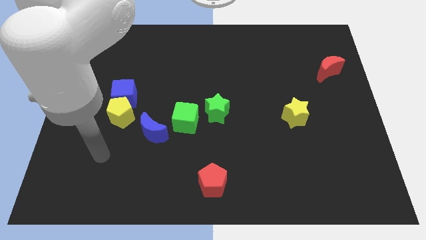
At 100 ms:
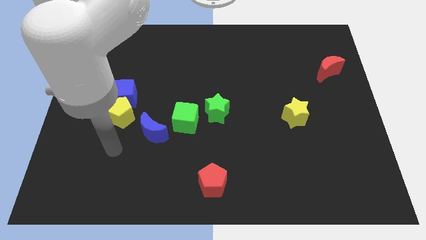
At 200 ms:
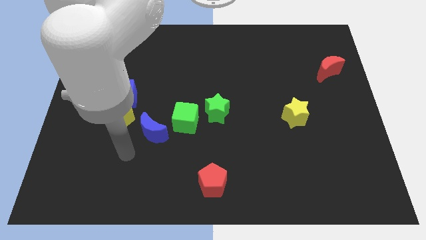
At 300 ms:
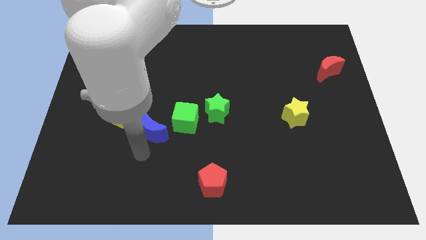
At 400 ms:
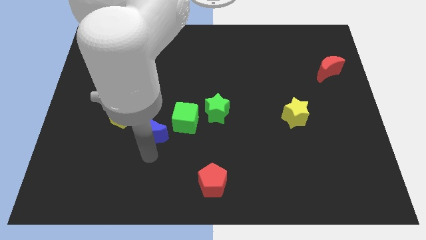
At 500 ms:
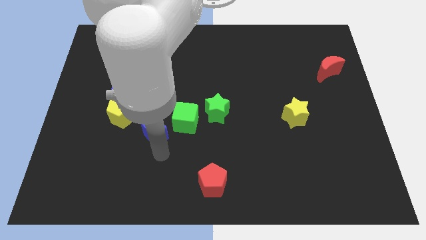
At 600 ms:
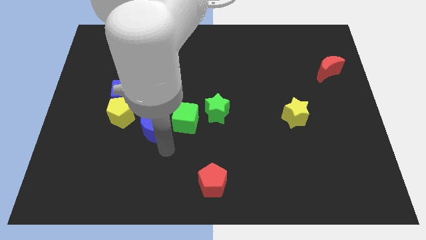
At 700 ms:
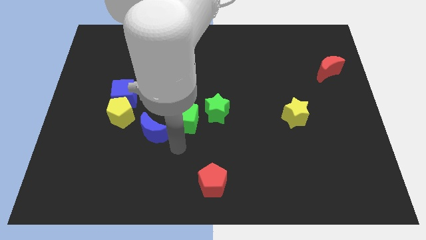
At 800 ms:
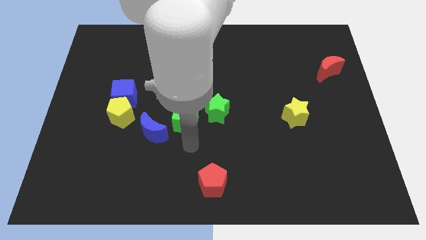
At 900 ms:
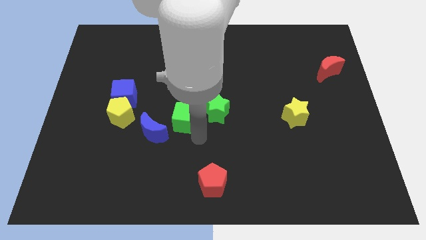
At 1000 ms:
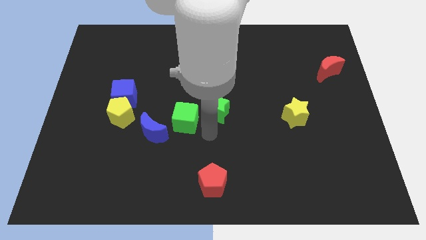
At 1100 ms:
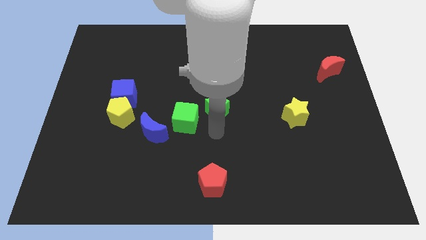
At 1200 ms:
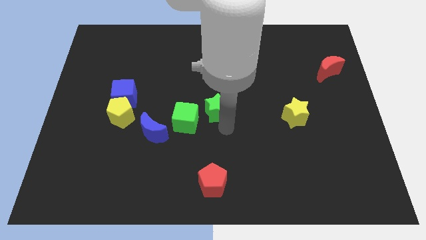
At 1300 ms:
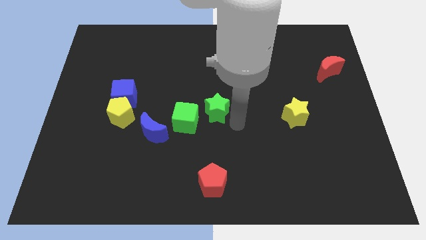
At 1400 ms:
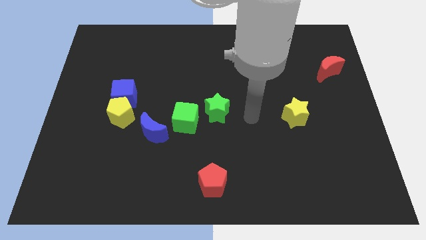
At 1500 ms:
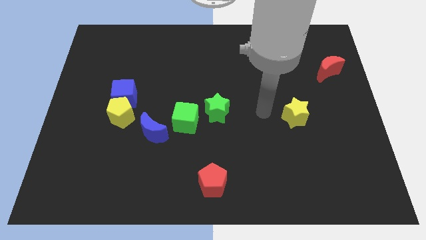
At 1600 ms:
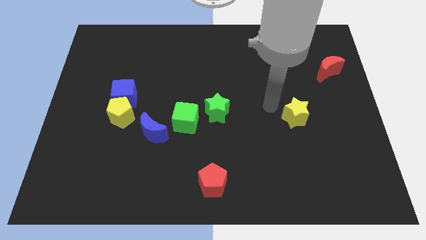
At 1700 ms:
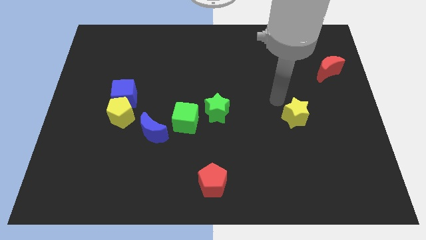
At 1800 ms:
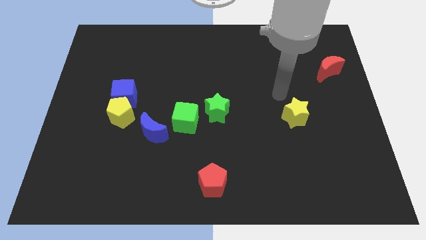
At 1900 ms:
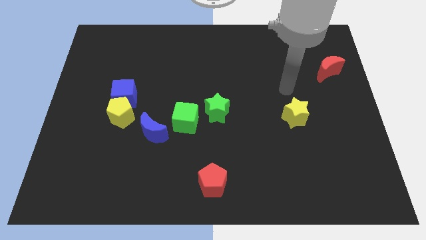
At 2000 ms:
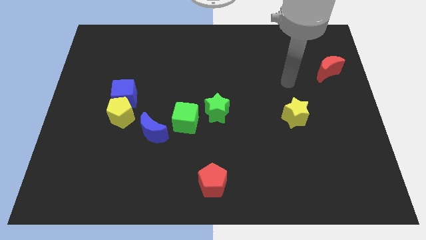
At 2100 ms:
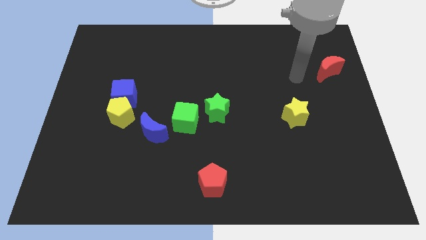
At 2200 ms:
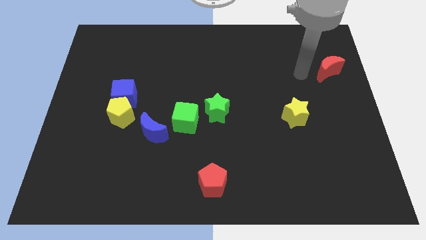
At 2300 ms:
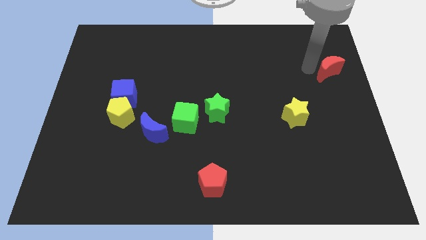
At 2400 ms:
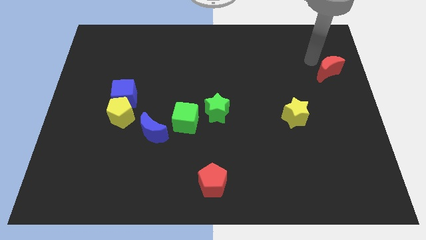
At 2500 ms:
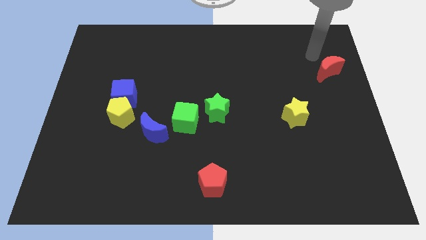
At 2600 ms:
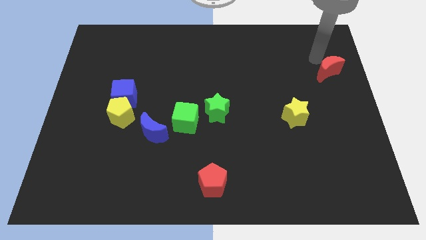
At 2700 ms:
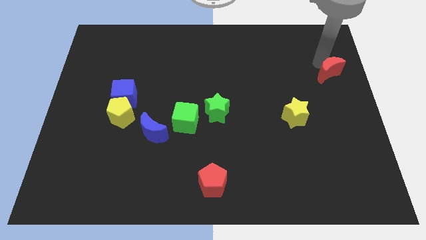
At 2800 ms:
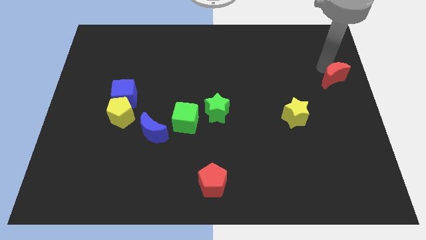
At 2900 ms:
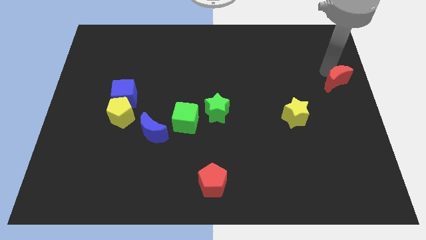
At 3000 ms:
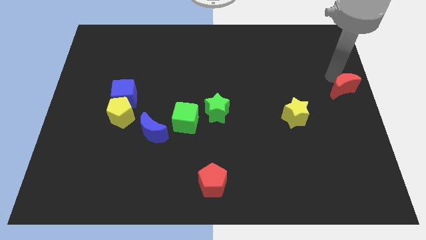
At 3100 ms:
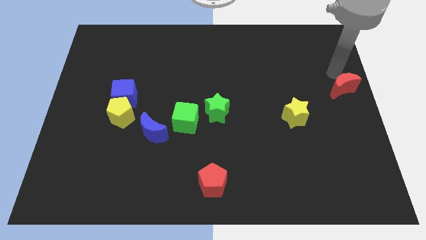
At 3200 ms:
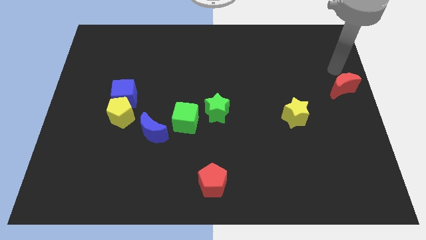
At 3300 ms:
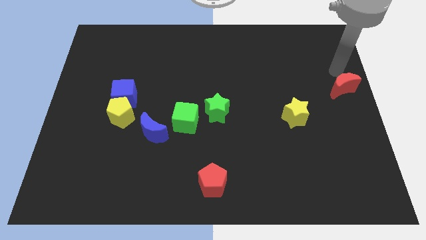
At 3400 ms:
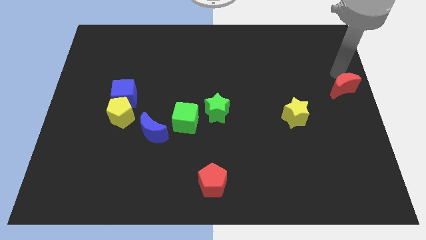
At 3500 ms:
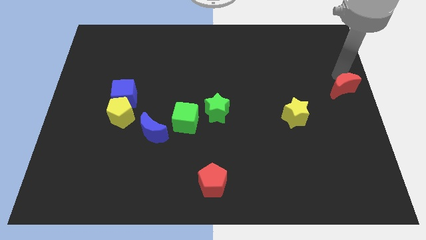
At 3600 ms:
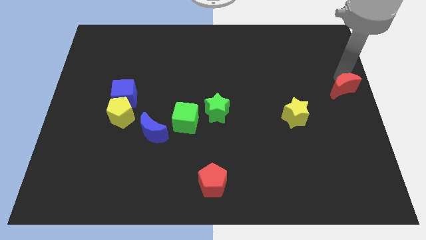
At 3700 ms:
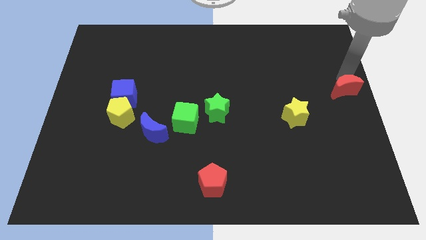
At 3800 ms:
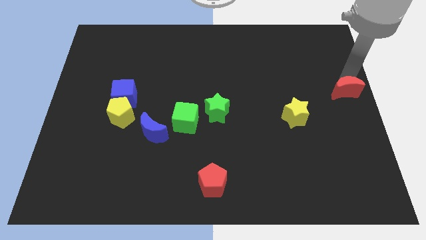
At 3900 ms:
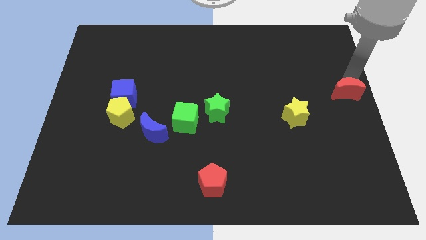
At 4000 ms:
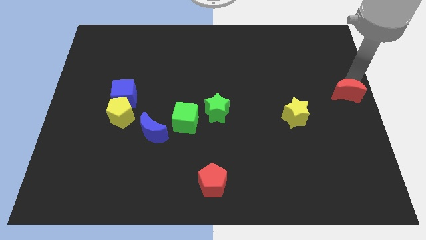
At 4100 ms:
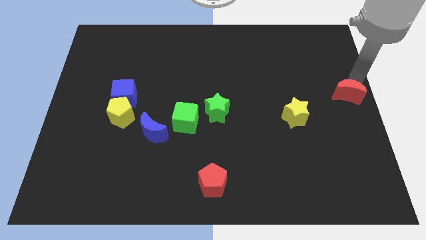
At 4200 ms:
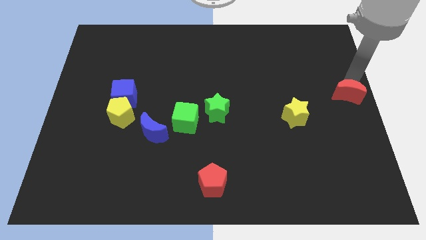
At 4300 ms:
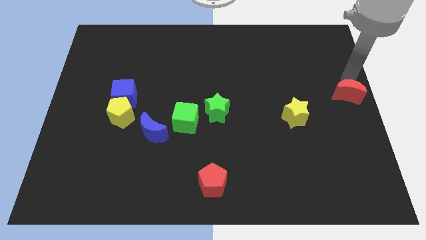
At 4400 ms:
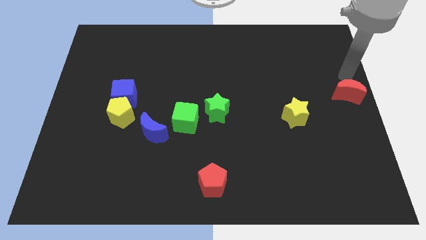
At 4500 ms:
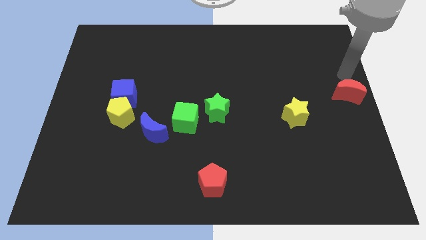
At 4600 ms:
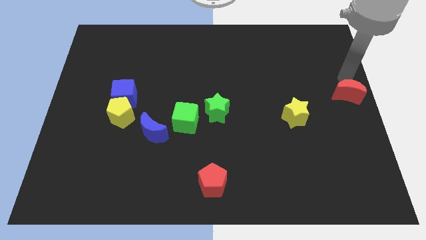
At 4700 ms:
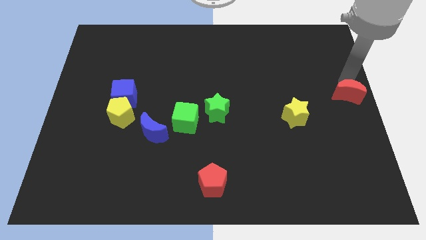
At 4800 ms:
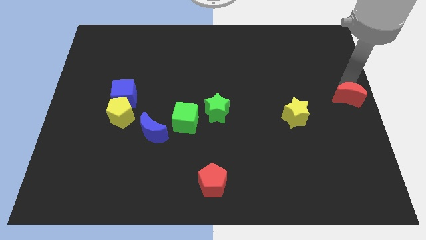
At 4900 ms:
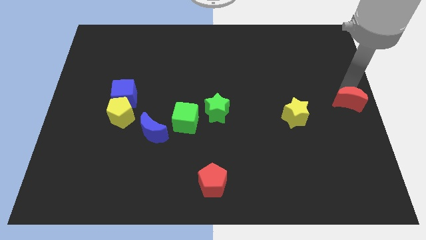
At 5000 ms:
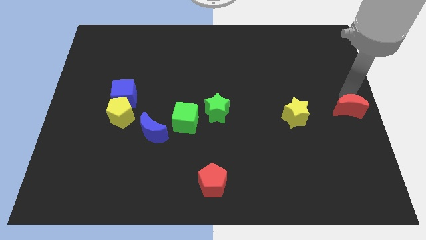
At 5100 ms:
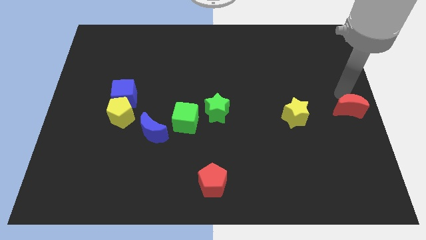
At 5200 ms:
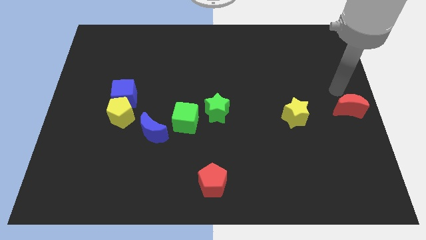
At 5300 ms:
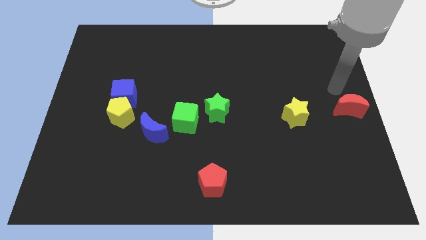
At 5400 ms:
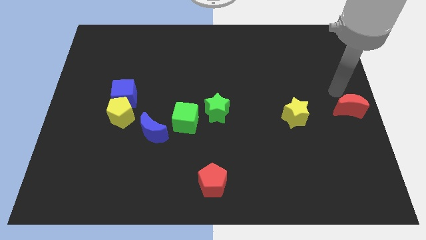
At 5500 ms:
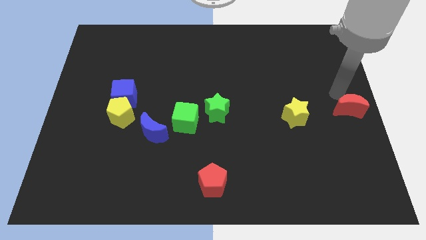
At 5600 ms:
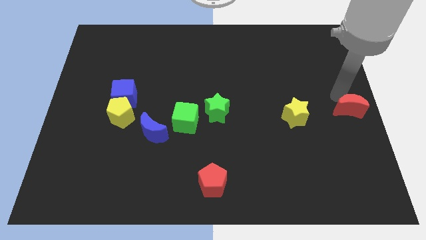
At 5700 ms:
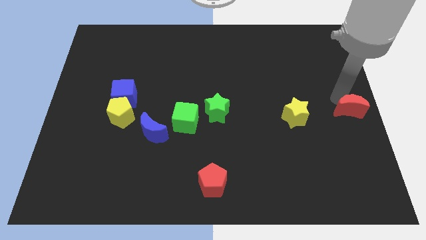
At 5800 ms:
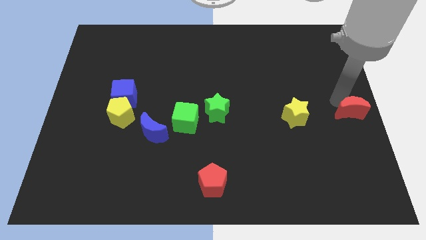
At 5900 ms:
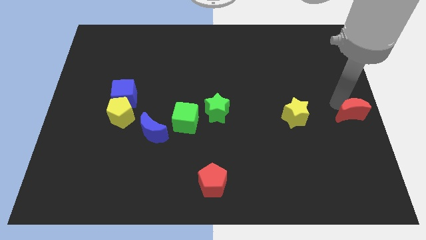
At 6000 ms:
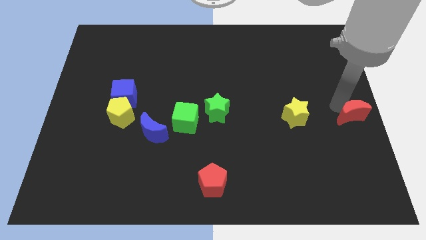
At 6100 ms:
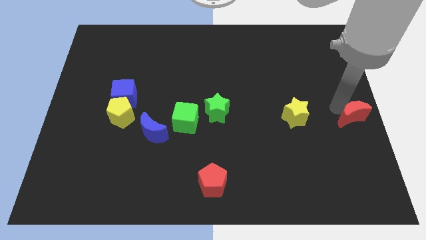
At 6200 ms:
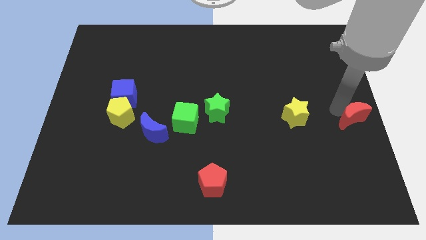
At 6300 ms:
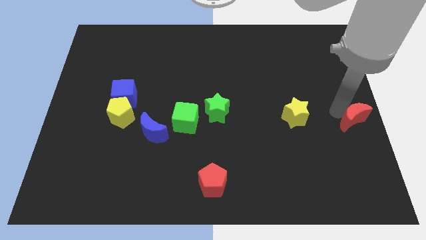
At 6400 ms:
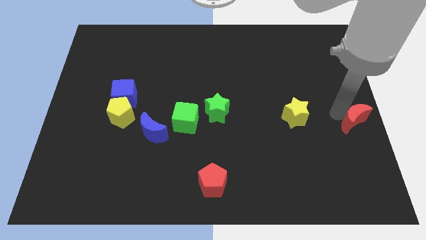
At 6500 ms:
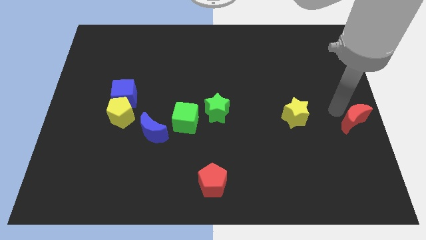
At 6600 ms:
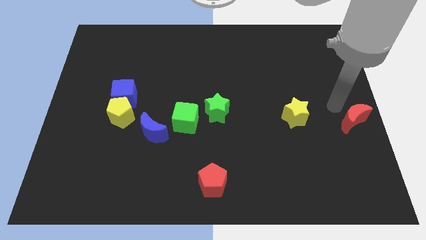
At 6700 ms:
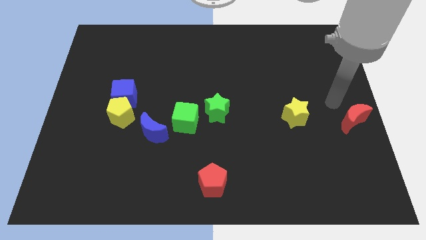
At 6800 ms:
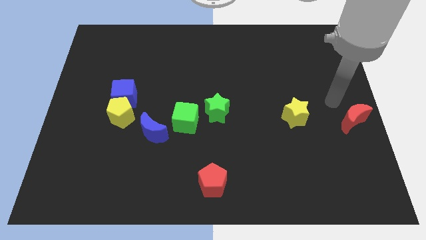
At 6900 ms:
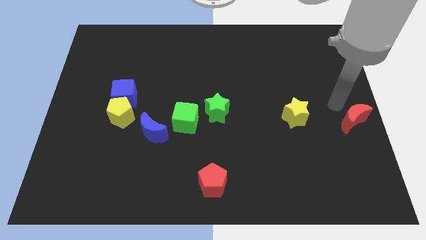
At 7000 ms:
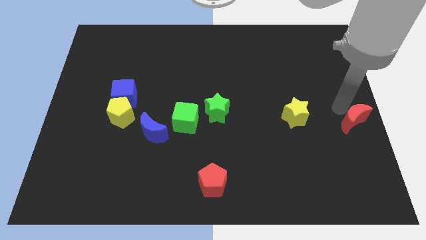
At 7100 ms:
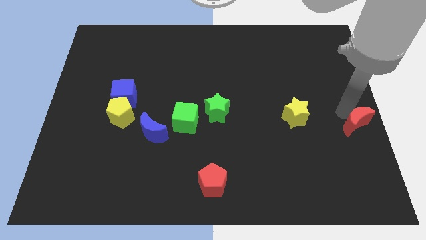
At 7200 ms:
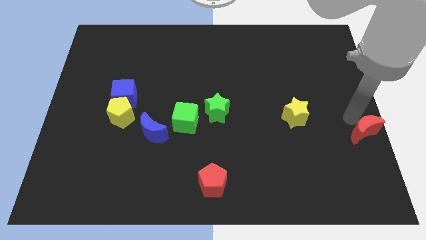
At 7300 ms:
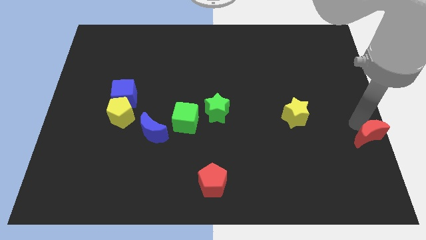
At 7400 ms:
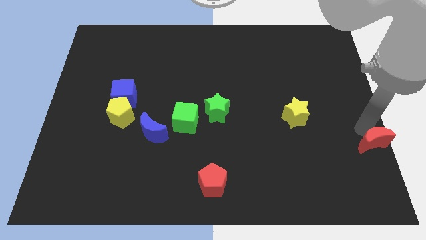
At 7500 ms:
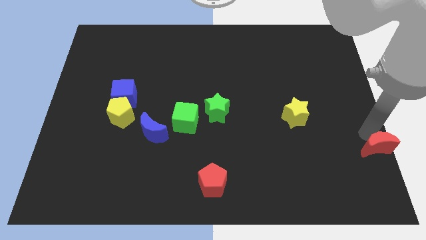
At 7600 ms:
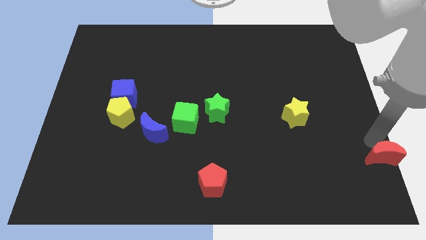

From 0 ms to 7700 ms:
move the red moon to the bottom right of the board
